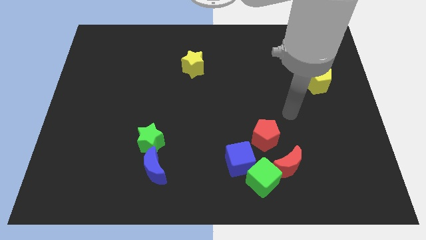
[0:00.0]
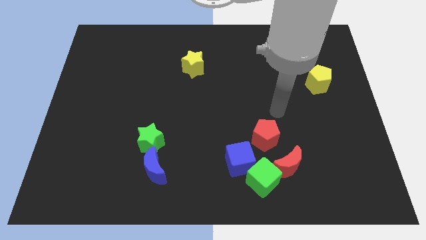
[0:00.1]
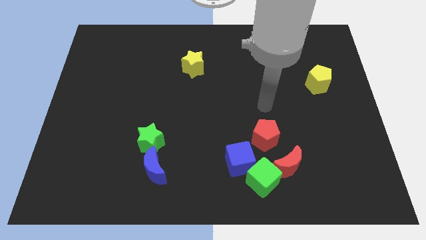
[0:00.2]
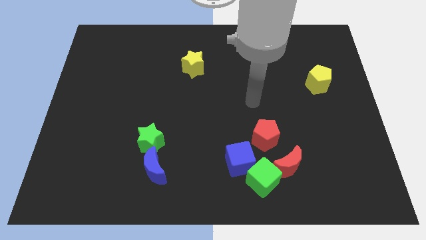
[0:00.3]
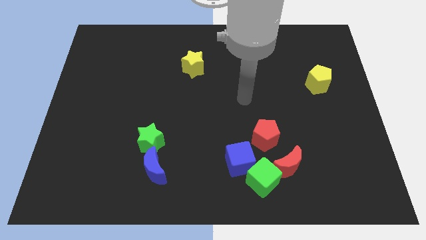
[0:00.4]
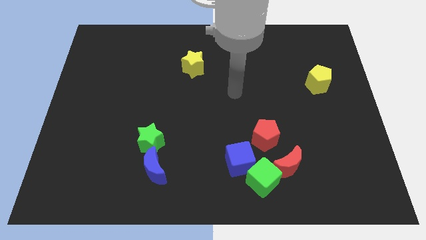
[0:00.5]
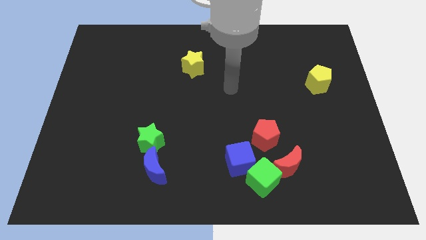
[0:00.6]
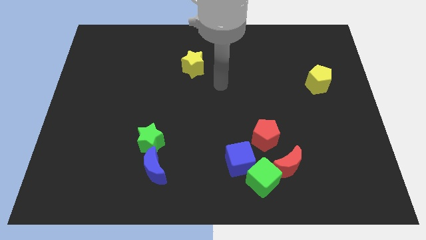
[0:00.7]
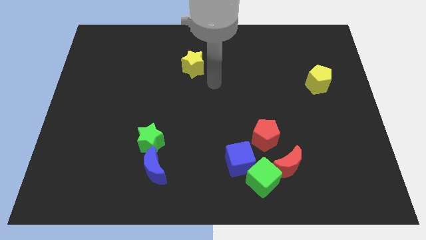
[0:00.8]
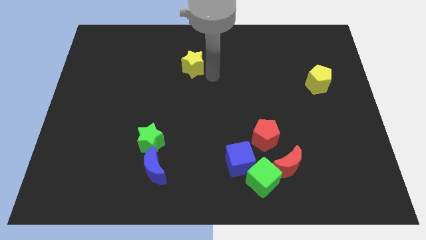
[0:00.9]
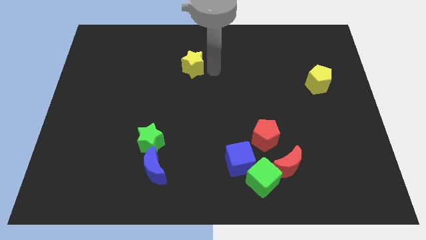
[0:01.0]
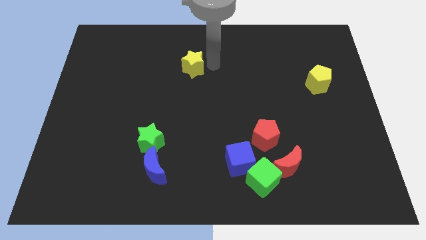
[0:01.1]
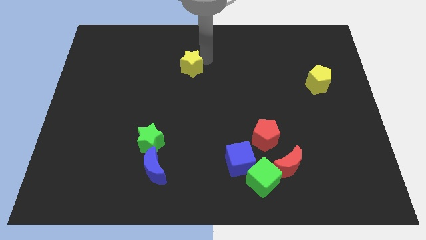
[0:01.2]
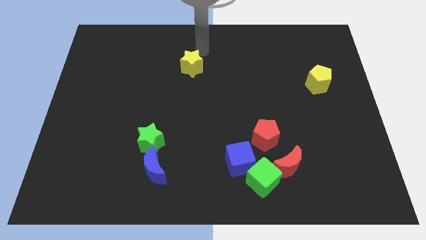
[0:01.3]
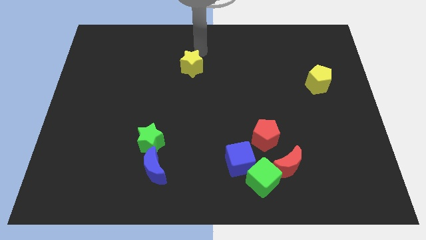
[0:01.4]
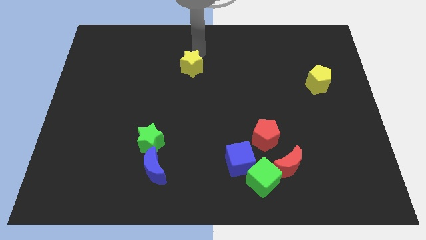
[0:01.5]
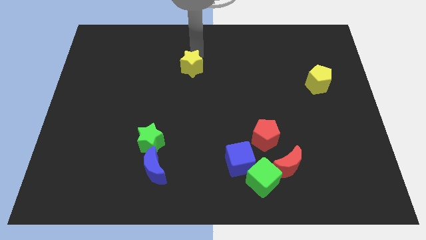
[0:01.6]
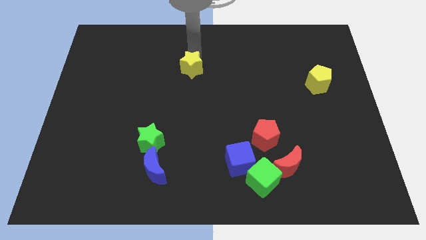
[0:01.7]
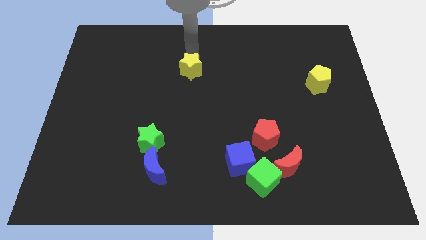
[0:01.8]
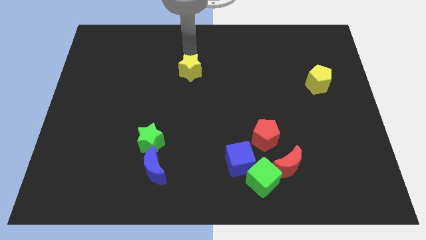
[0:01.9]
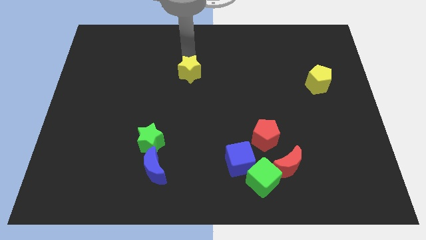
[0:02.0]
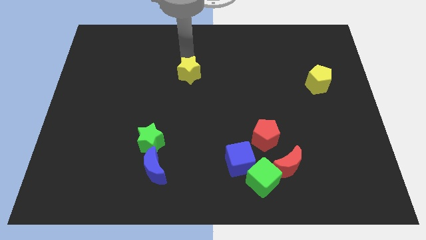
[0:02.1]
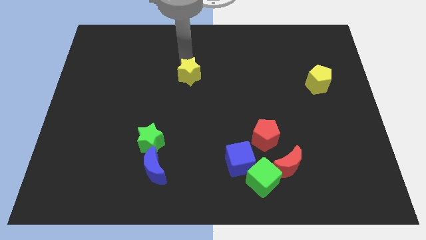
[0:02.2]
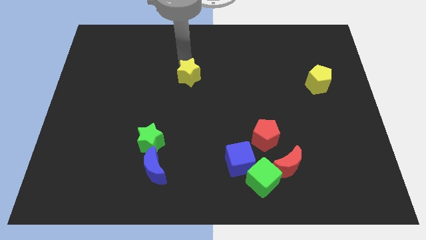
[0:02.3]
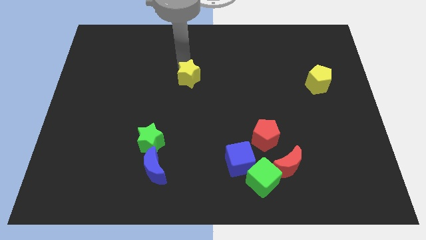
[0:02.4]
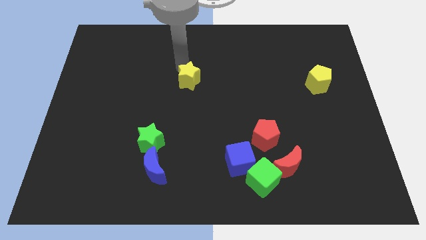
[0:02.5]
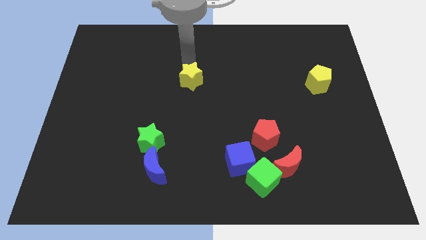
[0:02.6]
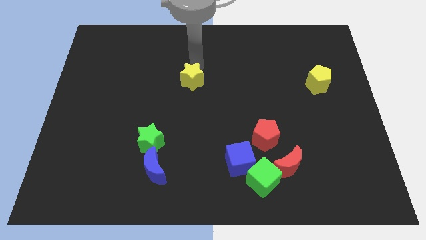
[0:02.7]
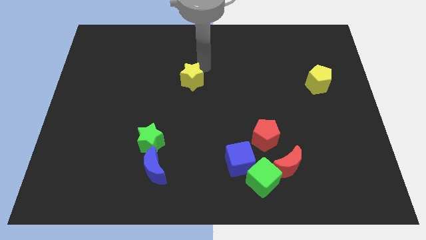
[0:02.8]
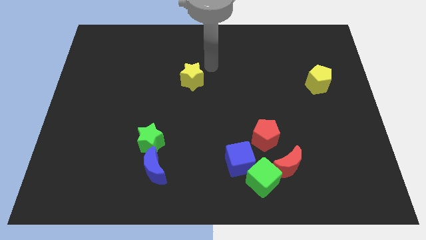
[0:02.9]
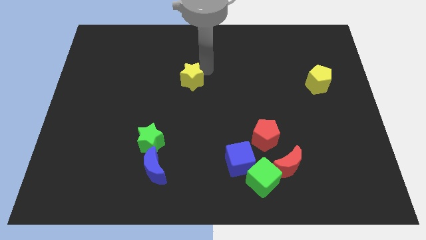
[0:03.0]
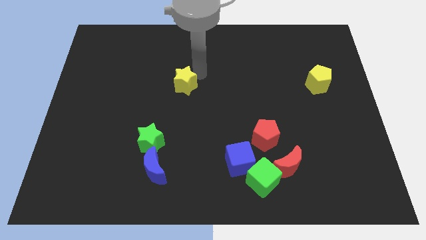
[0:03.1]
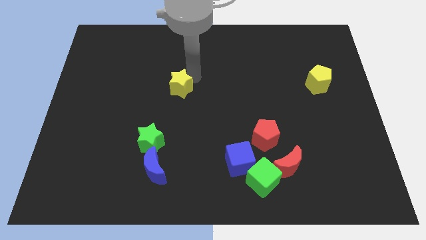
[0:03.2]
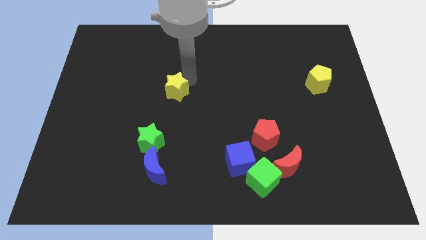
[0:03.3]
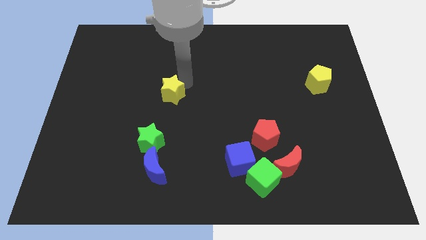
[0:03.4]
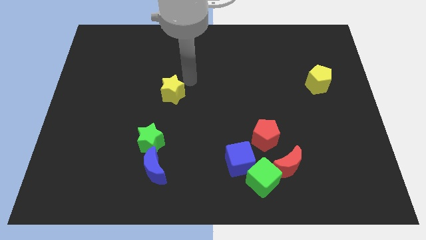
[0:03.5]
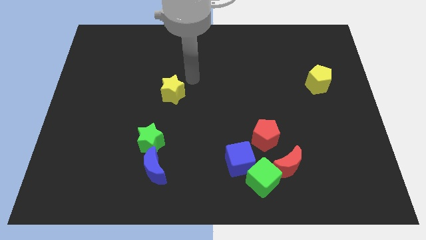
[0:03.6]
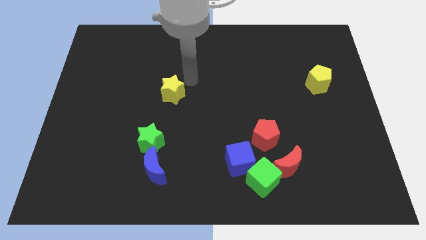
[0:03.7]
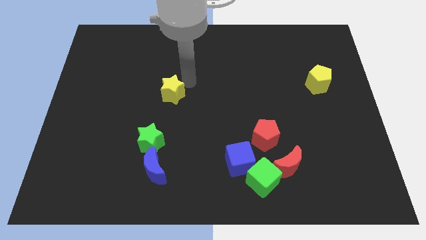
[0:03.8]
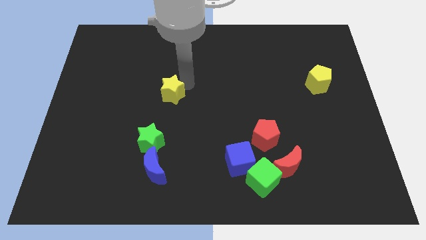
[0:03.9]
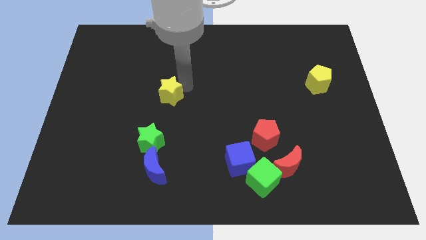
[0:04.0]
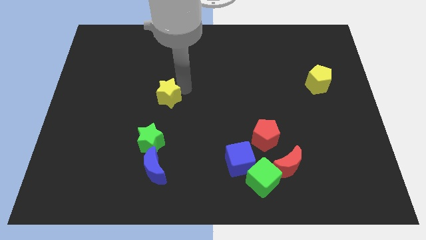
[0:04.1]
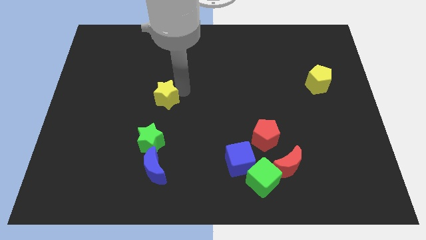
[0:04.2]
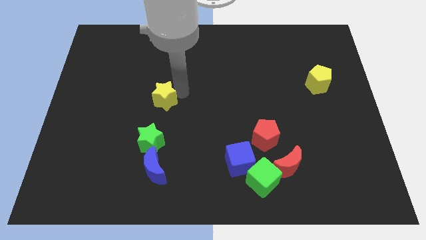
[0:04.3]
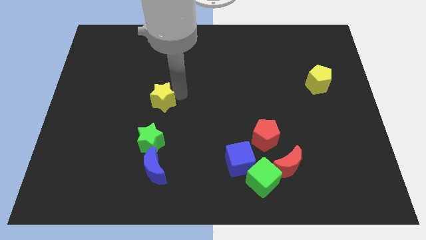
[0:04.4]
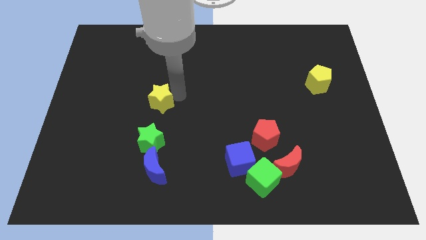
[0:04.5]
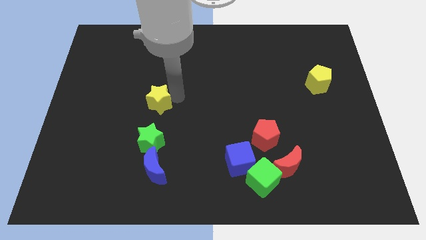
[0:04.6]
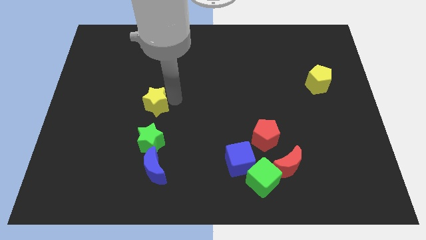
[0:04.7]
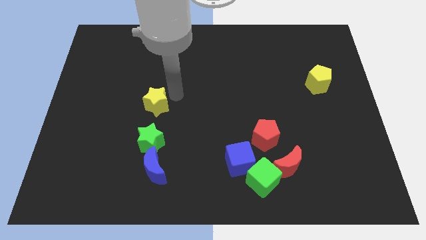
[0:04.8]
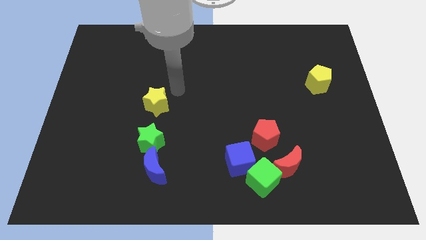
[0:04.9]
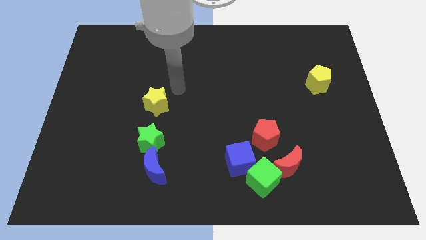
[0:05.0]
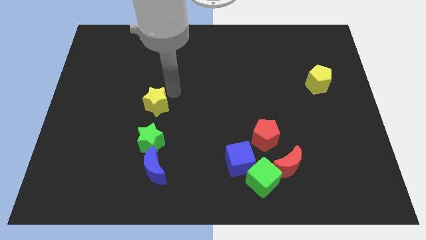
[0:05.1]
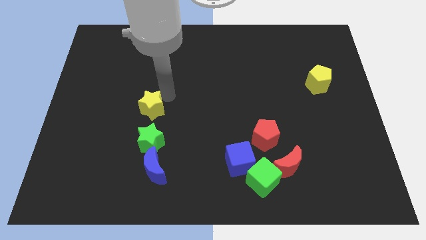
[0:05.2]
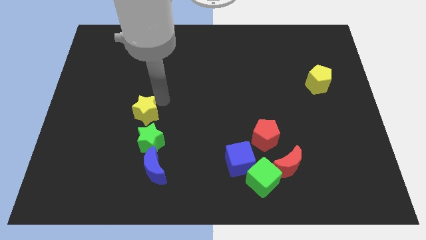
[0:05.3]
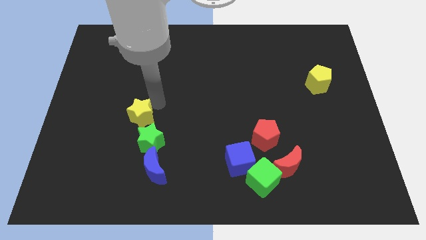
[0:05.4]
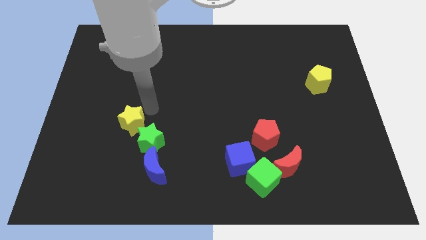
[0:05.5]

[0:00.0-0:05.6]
push the yellow star down and to the left diagonally

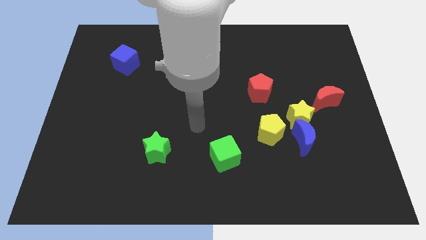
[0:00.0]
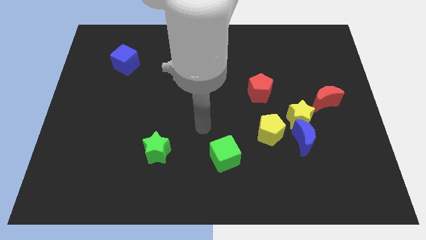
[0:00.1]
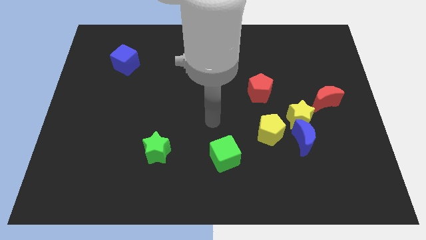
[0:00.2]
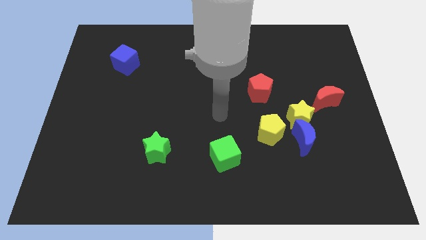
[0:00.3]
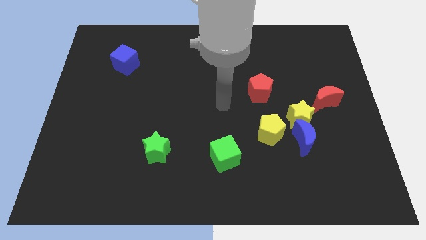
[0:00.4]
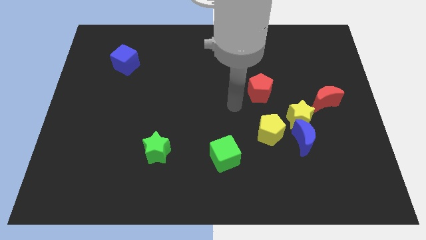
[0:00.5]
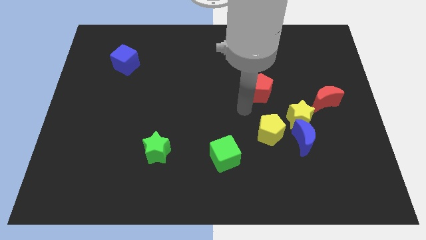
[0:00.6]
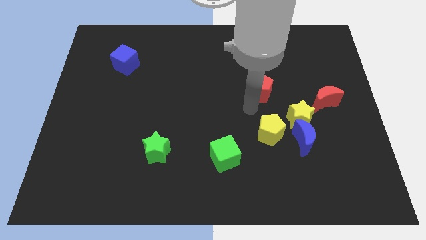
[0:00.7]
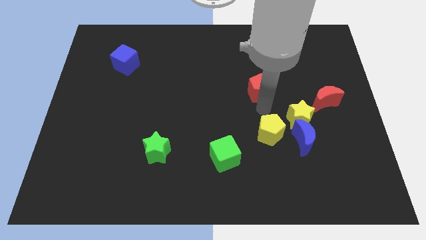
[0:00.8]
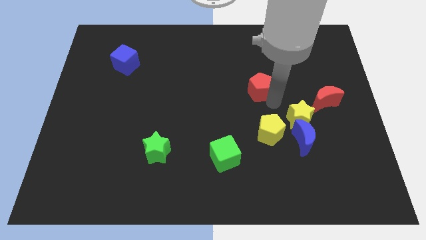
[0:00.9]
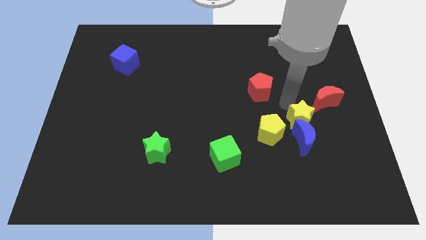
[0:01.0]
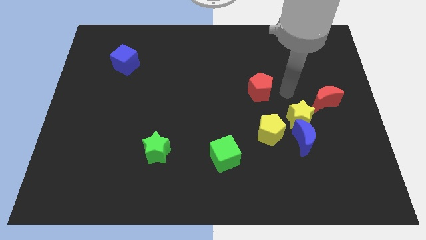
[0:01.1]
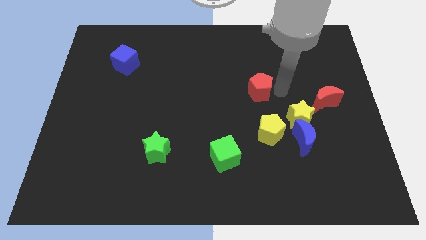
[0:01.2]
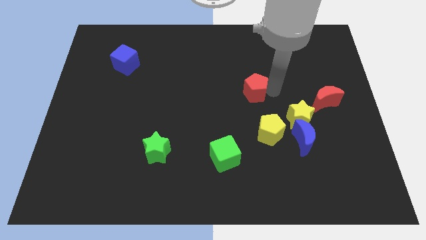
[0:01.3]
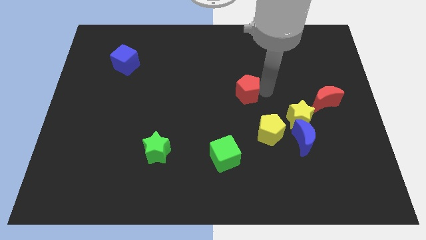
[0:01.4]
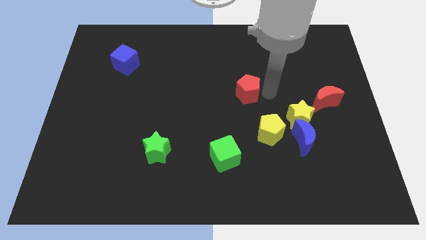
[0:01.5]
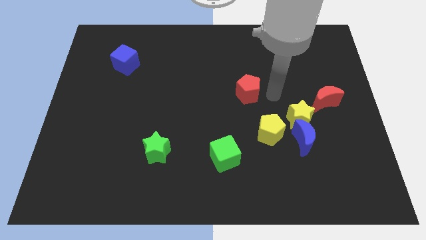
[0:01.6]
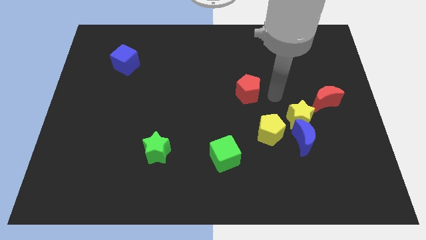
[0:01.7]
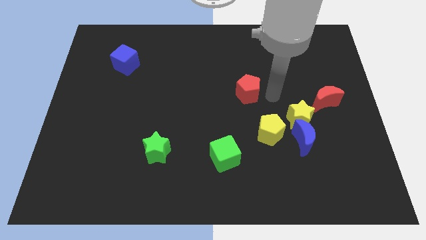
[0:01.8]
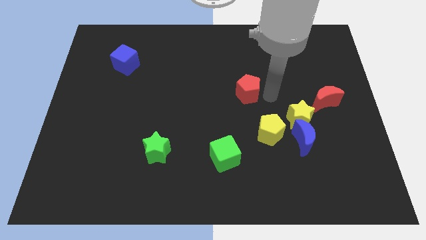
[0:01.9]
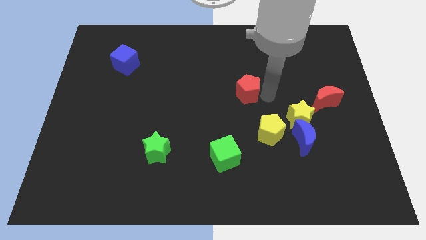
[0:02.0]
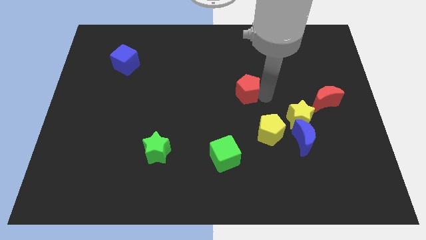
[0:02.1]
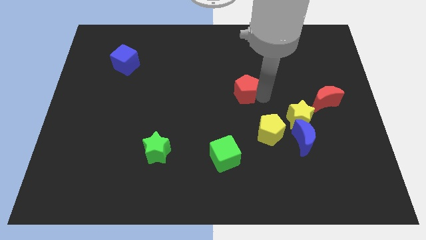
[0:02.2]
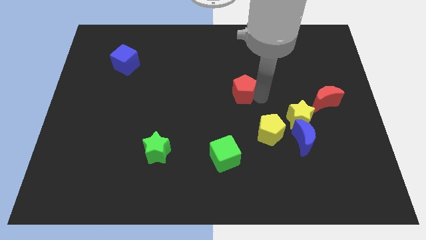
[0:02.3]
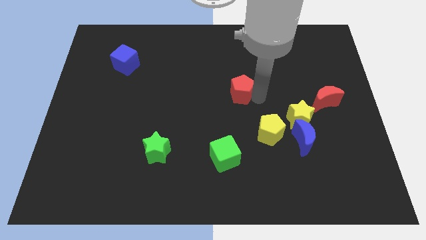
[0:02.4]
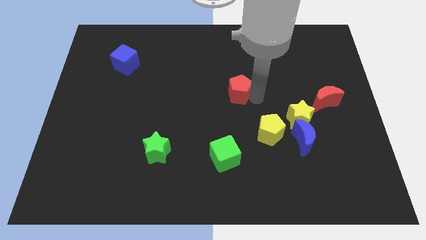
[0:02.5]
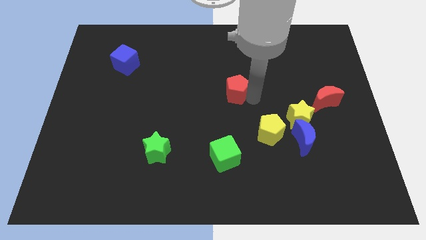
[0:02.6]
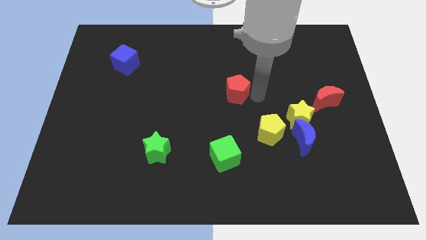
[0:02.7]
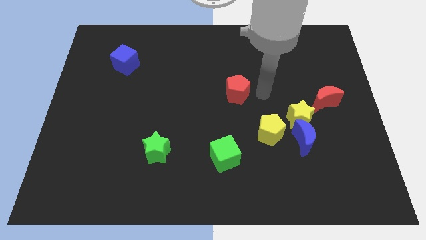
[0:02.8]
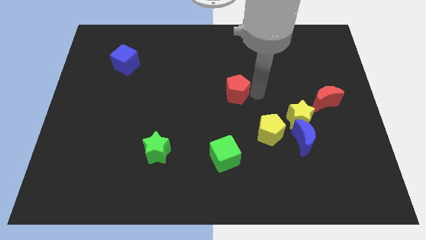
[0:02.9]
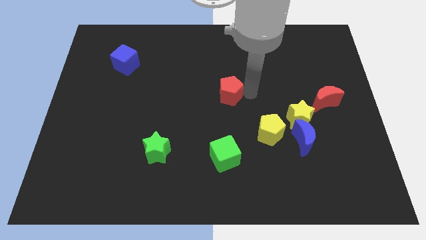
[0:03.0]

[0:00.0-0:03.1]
push the red pentagon to the left a little
